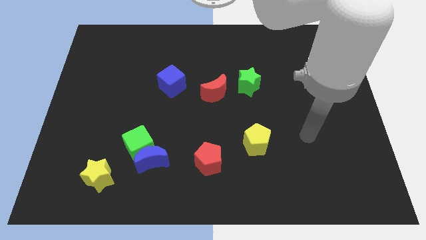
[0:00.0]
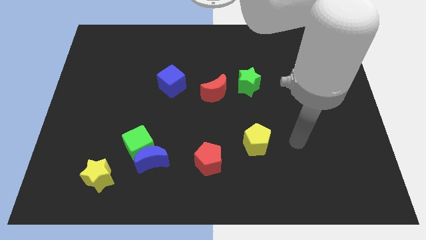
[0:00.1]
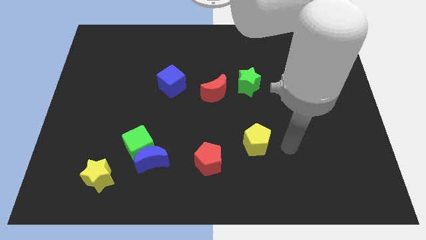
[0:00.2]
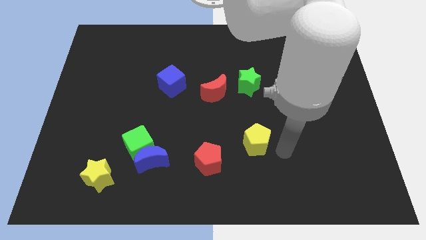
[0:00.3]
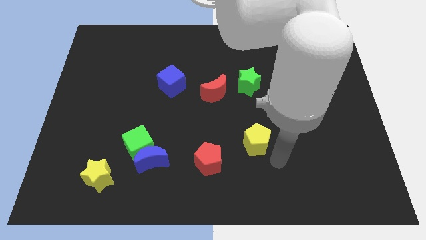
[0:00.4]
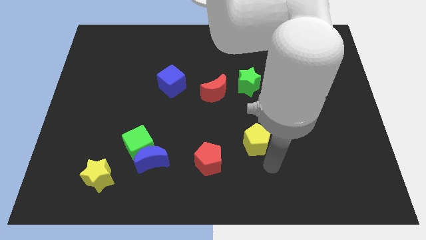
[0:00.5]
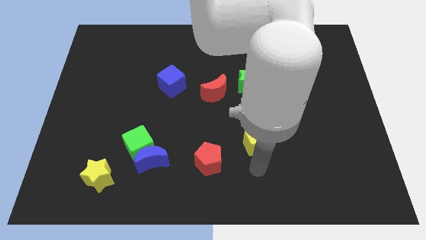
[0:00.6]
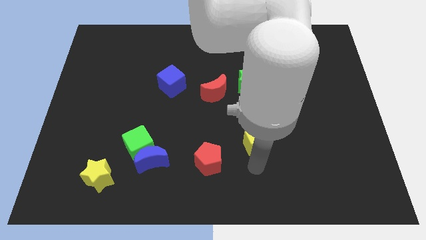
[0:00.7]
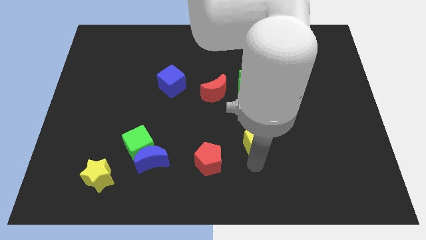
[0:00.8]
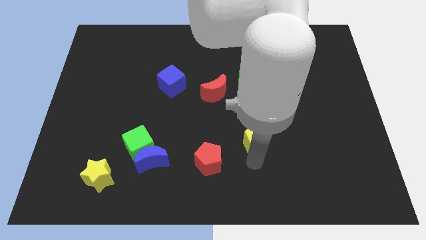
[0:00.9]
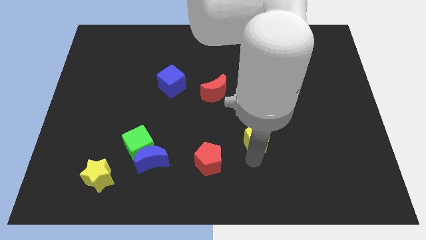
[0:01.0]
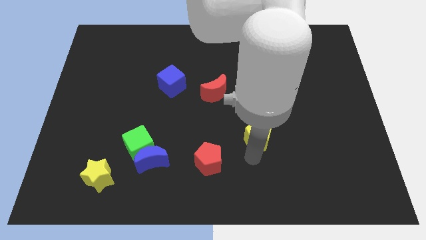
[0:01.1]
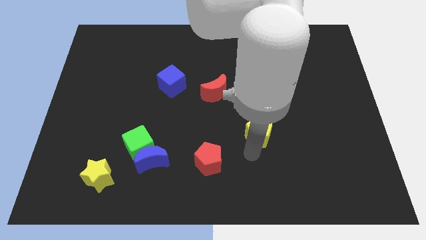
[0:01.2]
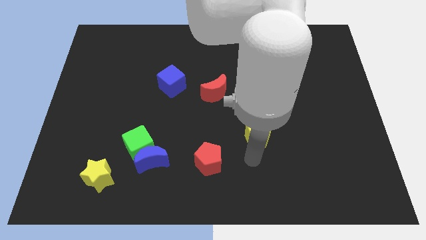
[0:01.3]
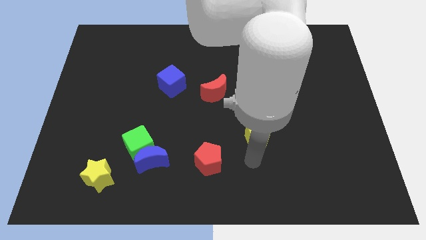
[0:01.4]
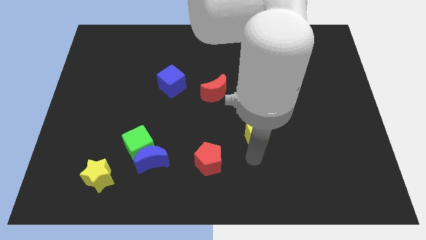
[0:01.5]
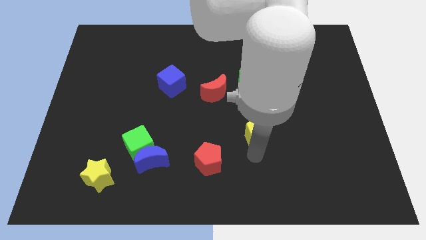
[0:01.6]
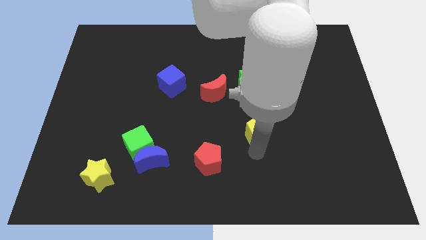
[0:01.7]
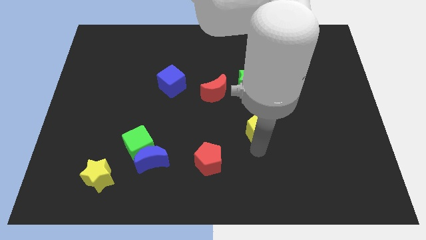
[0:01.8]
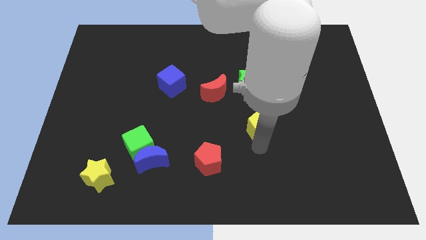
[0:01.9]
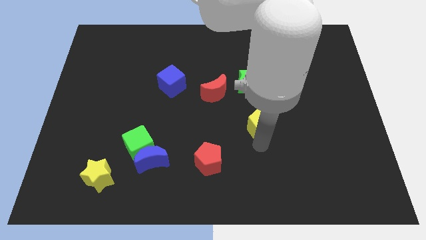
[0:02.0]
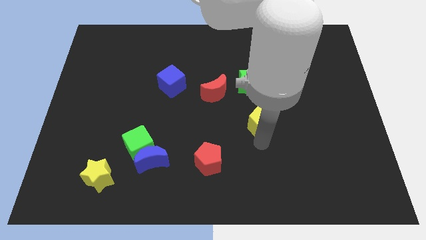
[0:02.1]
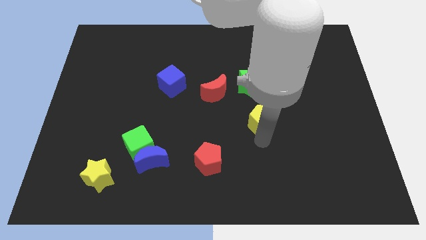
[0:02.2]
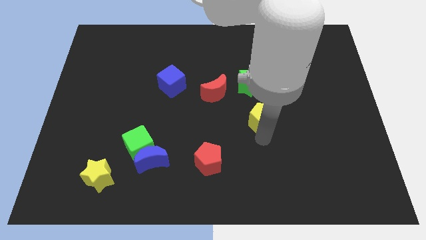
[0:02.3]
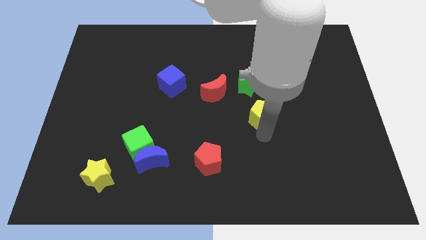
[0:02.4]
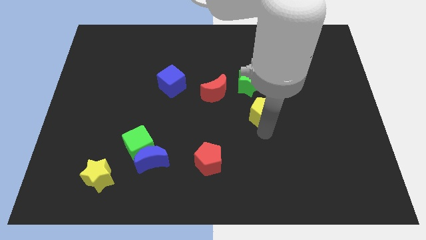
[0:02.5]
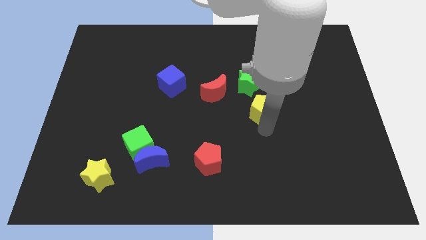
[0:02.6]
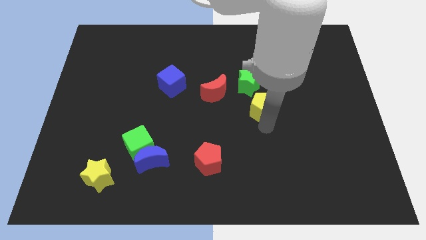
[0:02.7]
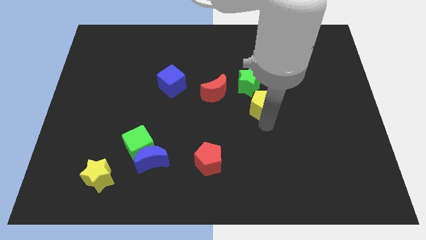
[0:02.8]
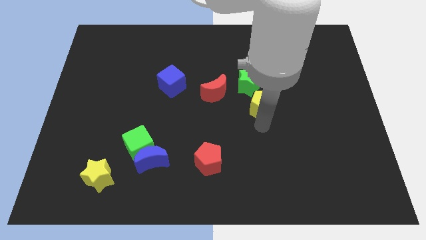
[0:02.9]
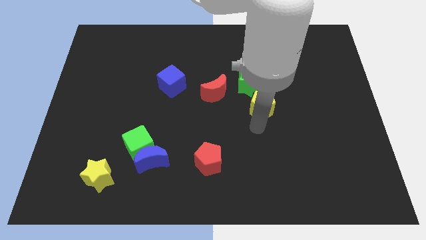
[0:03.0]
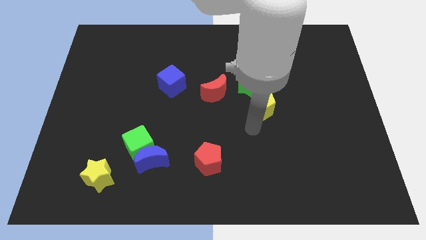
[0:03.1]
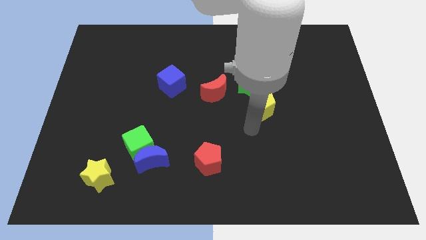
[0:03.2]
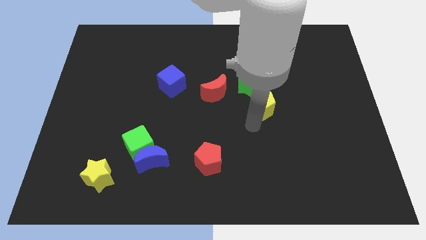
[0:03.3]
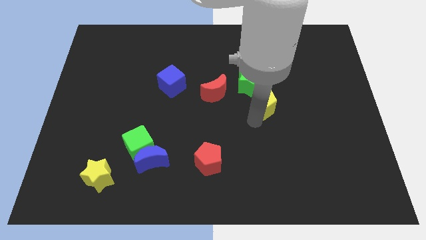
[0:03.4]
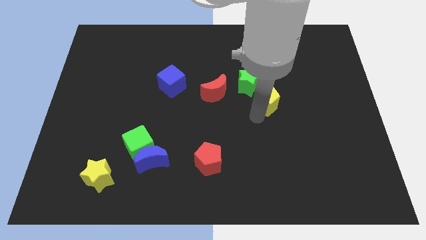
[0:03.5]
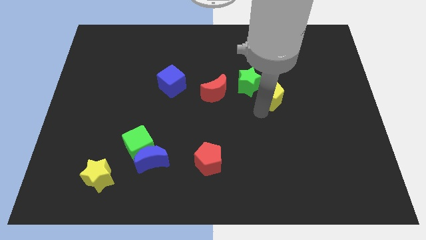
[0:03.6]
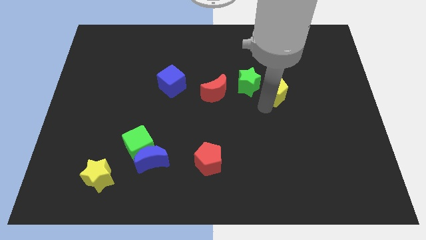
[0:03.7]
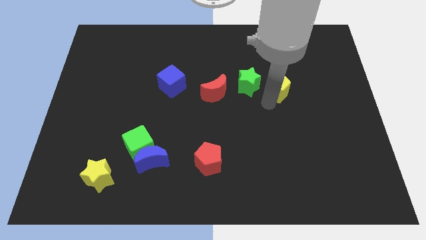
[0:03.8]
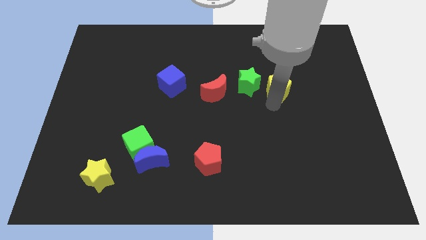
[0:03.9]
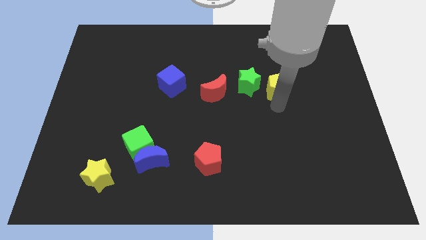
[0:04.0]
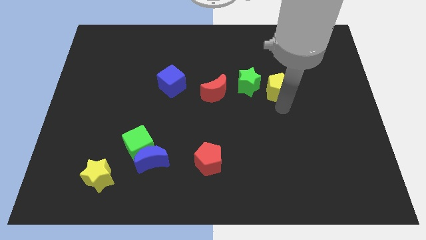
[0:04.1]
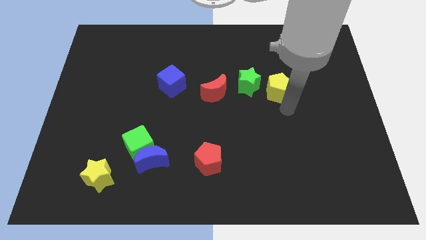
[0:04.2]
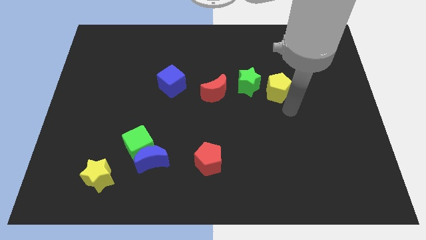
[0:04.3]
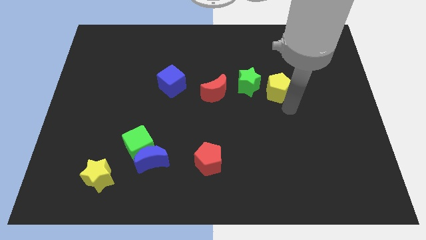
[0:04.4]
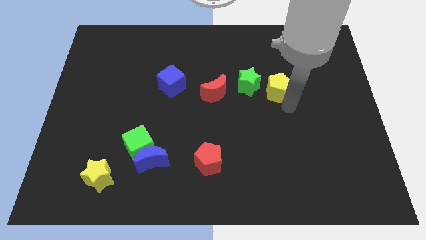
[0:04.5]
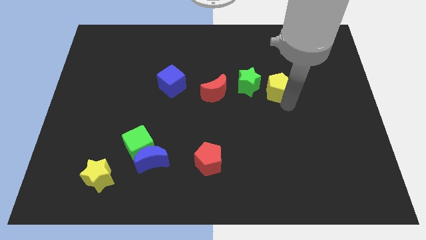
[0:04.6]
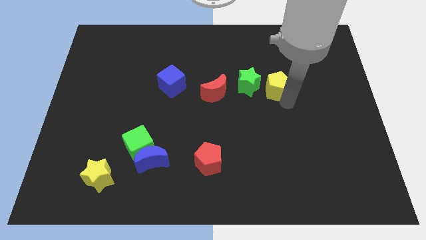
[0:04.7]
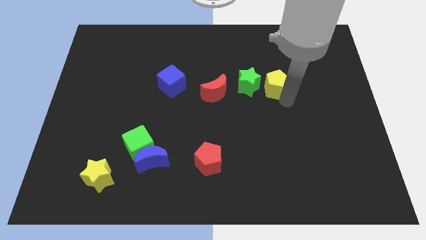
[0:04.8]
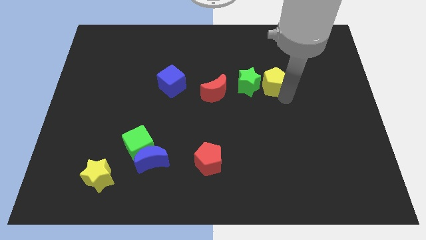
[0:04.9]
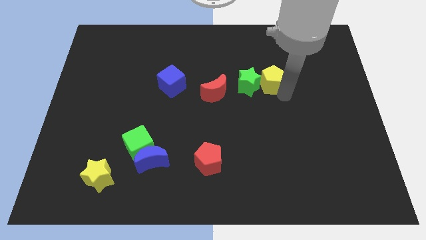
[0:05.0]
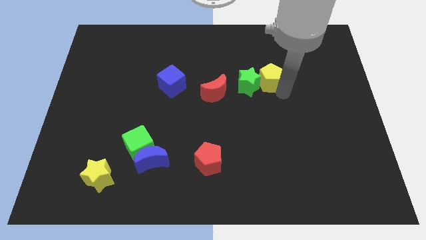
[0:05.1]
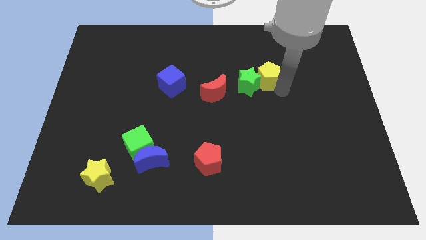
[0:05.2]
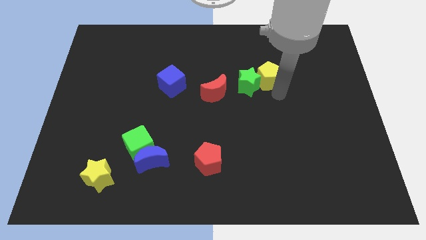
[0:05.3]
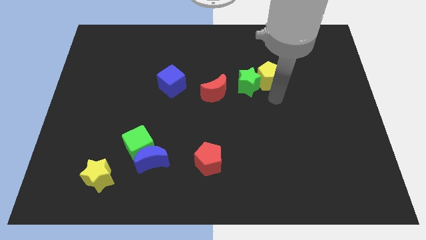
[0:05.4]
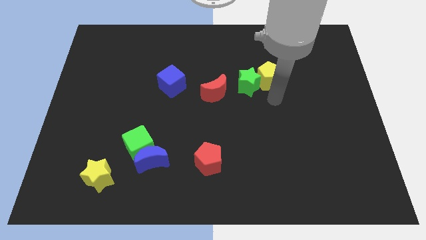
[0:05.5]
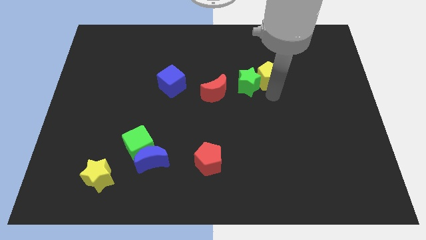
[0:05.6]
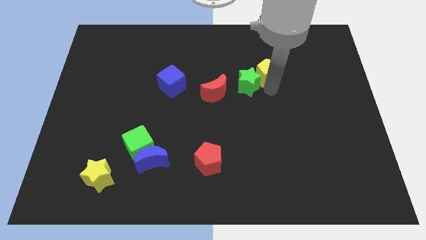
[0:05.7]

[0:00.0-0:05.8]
push the yellow pentagon above the green star

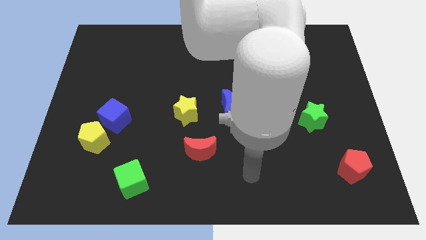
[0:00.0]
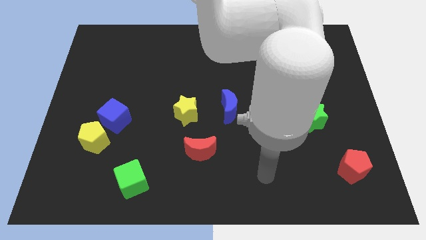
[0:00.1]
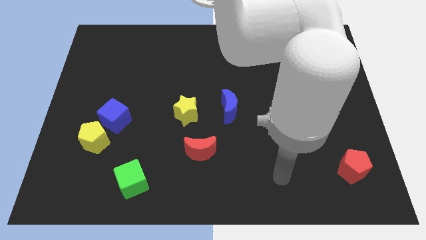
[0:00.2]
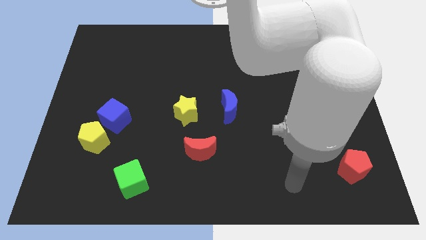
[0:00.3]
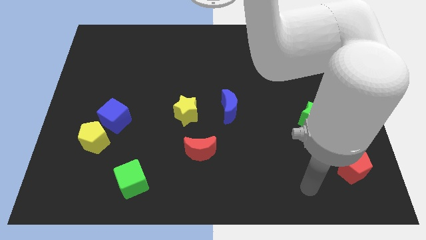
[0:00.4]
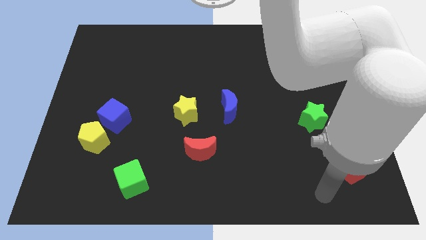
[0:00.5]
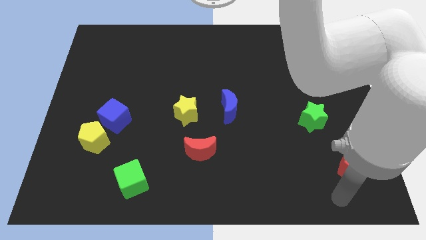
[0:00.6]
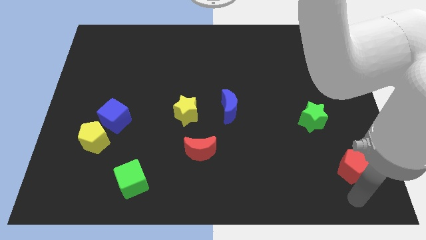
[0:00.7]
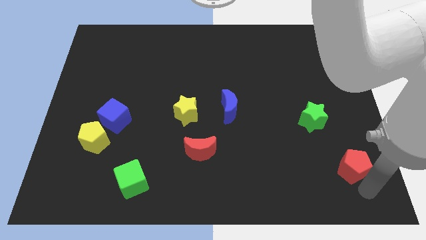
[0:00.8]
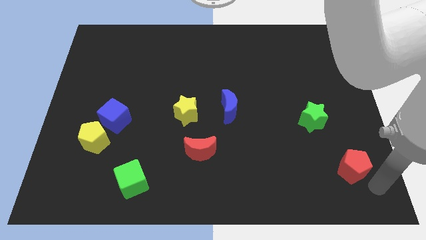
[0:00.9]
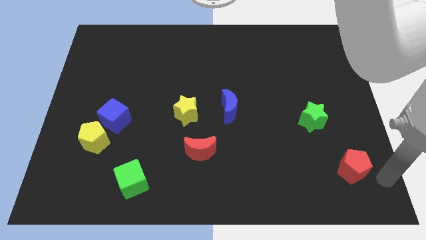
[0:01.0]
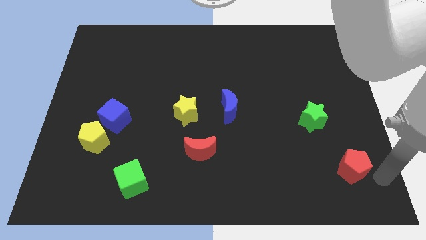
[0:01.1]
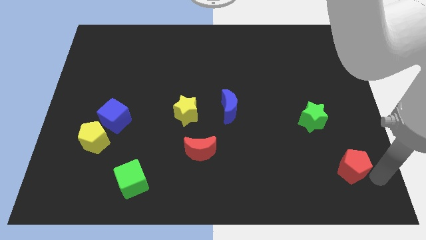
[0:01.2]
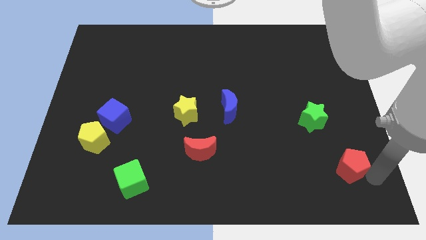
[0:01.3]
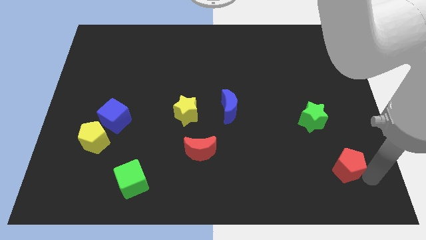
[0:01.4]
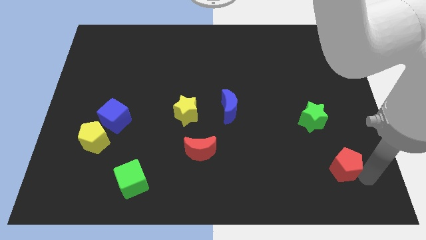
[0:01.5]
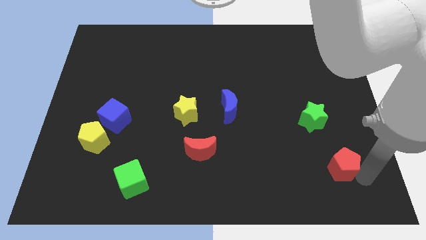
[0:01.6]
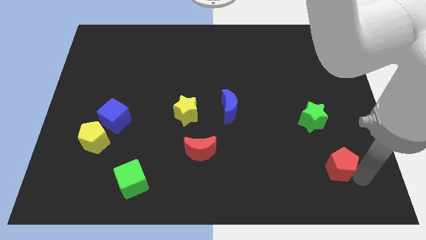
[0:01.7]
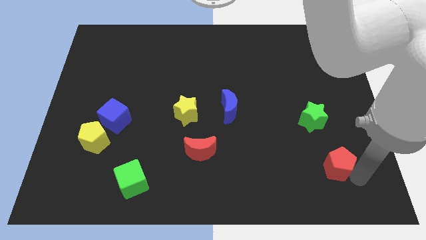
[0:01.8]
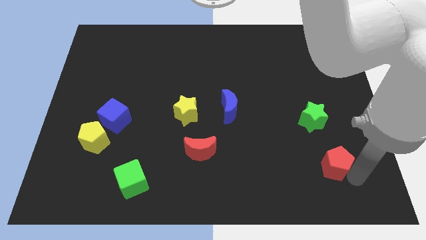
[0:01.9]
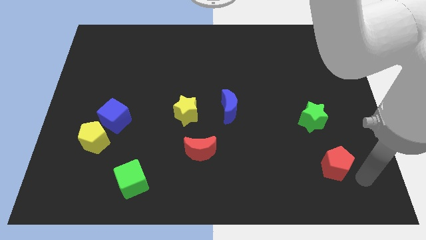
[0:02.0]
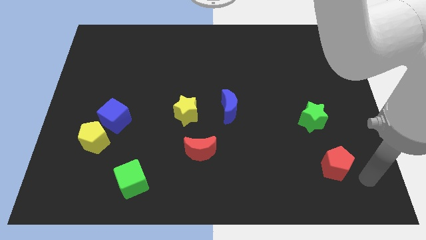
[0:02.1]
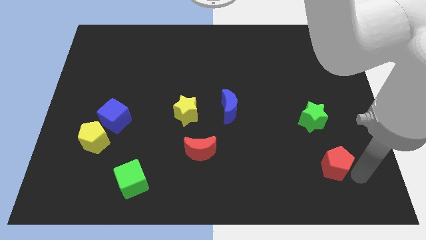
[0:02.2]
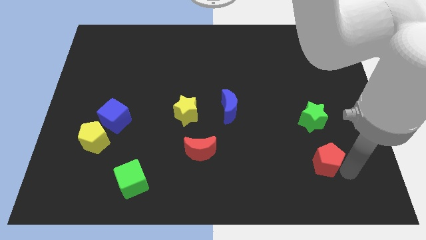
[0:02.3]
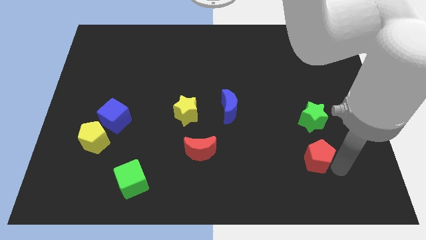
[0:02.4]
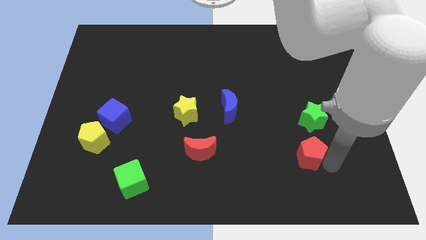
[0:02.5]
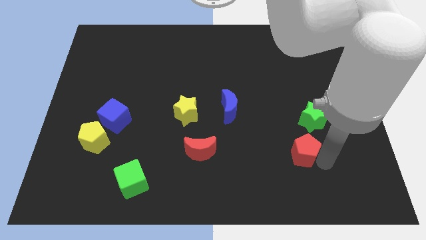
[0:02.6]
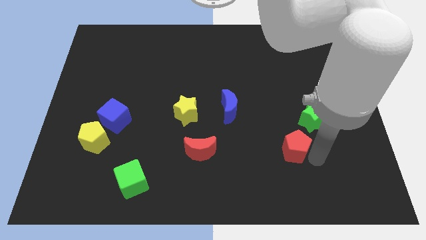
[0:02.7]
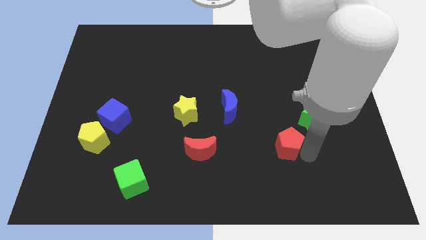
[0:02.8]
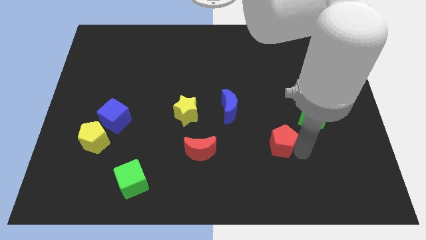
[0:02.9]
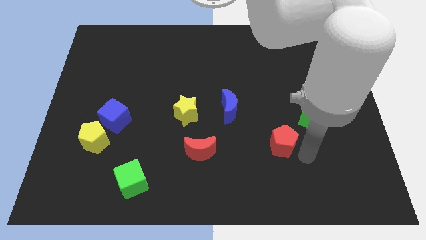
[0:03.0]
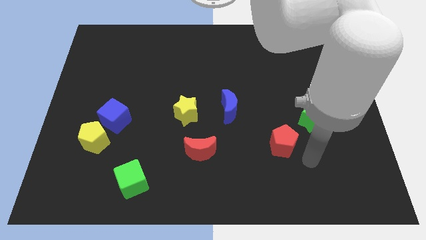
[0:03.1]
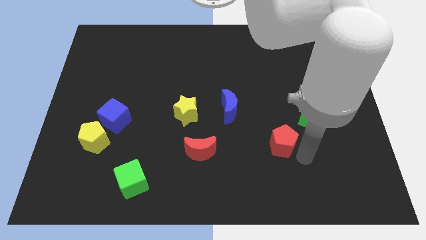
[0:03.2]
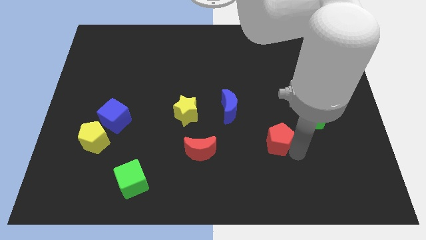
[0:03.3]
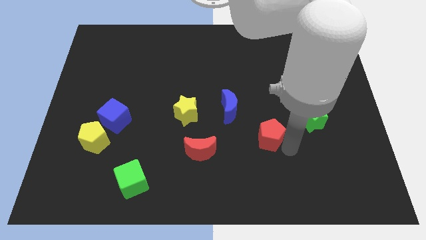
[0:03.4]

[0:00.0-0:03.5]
put the red pentagon diagonally down and to the right of the blue moon
